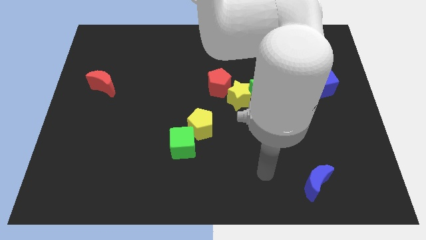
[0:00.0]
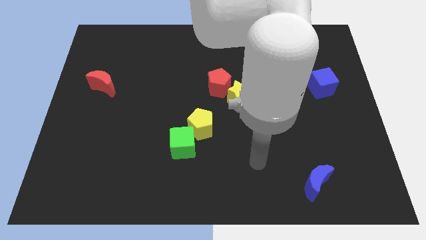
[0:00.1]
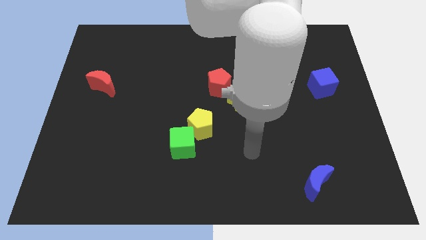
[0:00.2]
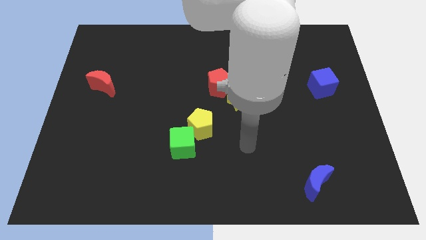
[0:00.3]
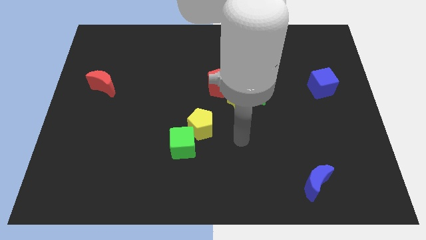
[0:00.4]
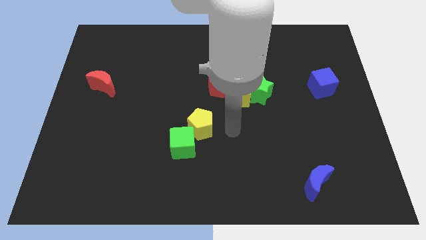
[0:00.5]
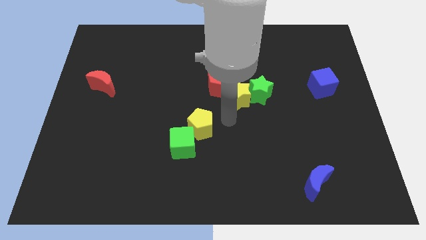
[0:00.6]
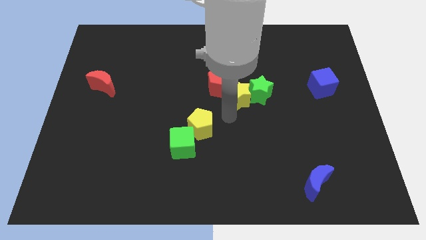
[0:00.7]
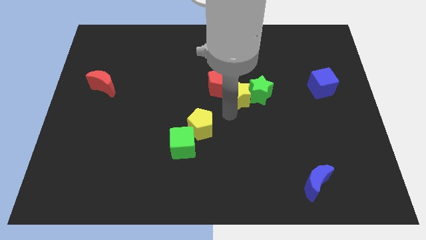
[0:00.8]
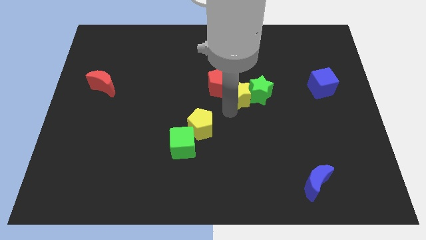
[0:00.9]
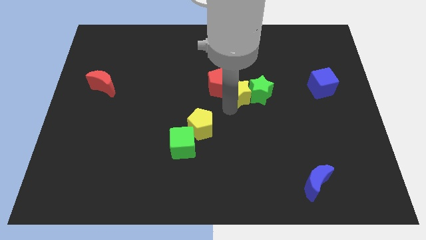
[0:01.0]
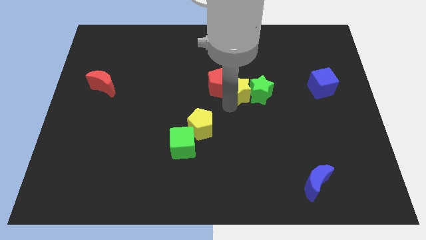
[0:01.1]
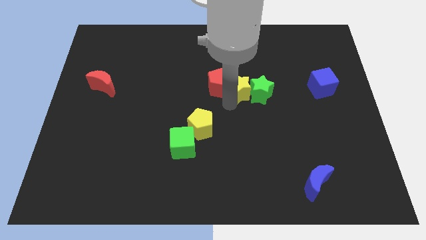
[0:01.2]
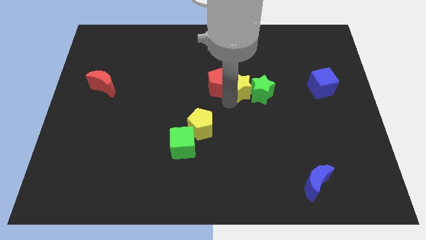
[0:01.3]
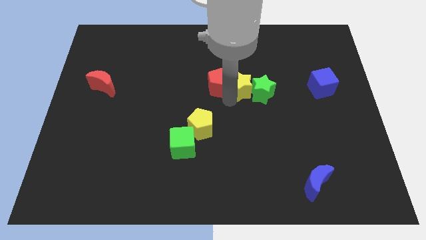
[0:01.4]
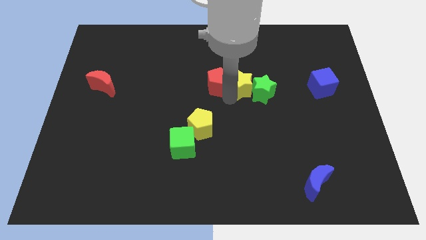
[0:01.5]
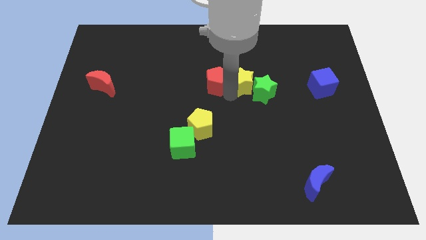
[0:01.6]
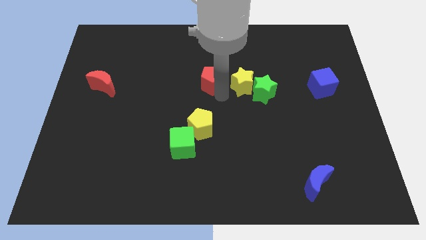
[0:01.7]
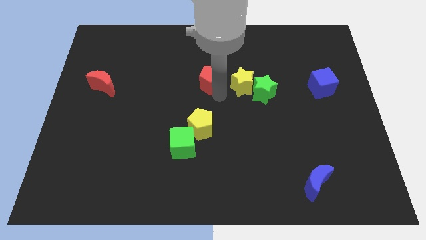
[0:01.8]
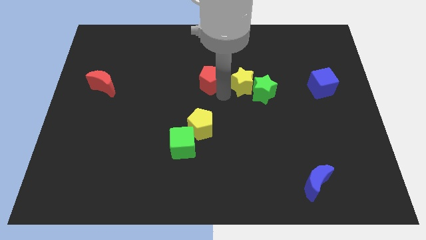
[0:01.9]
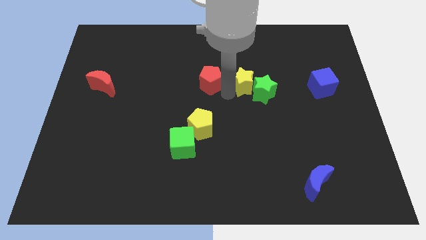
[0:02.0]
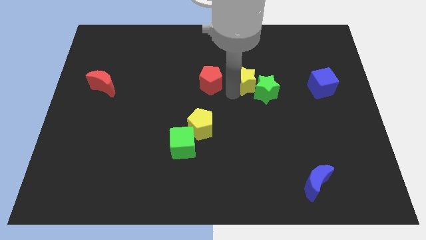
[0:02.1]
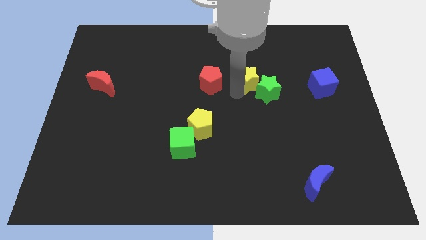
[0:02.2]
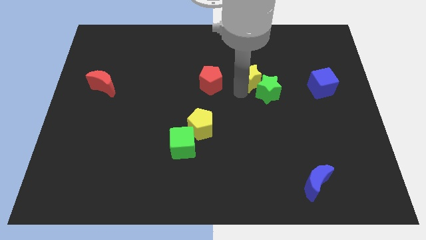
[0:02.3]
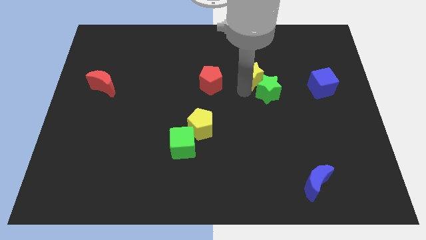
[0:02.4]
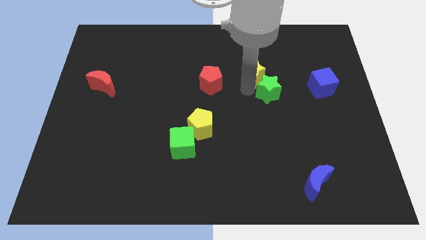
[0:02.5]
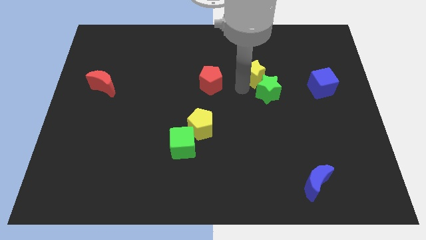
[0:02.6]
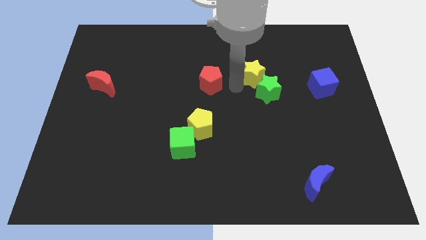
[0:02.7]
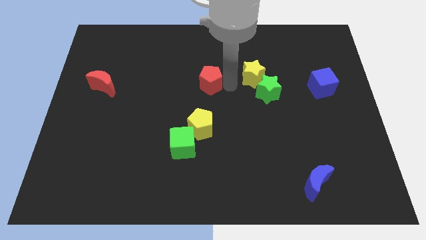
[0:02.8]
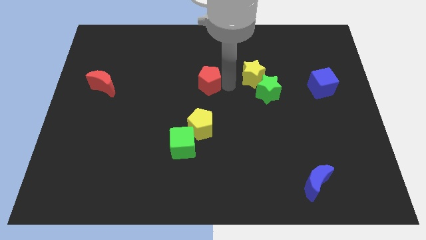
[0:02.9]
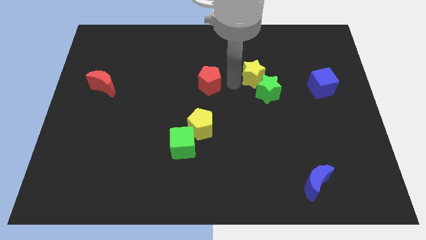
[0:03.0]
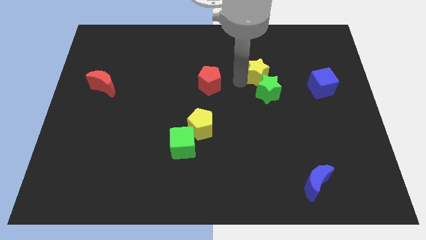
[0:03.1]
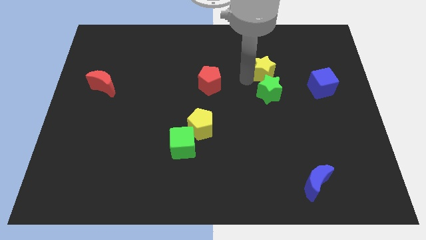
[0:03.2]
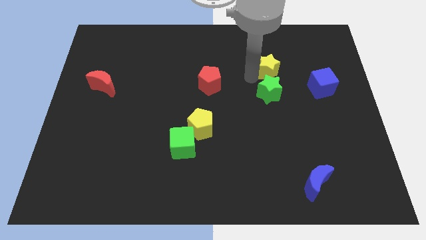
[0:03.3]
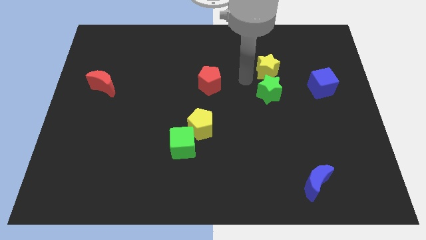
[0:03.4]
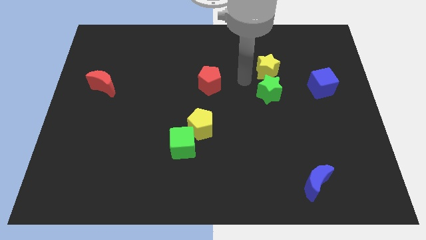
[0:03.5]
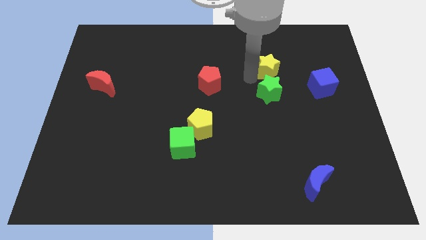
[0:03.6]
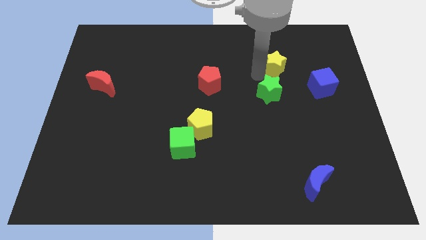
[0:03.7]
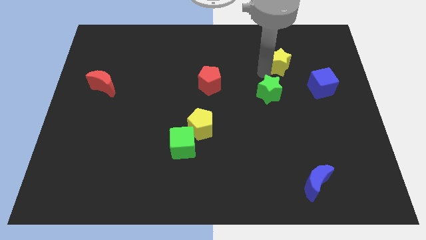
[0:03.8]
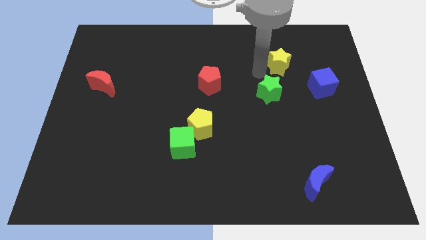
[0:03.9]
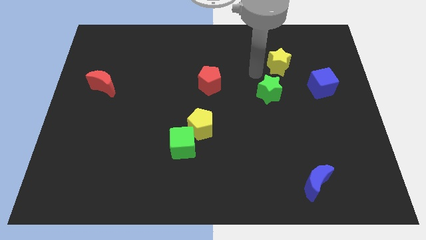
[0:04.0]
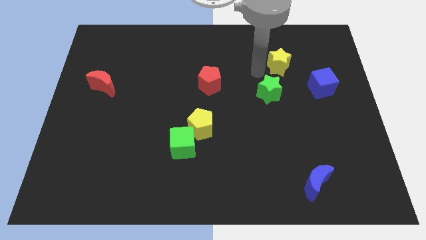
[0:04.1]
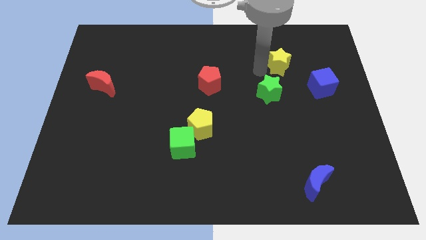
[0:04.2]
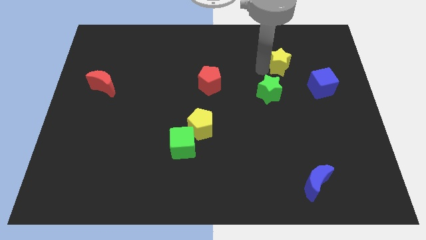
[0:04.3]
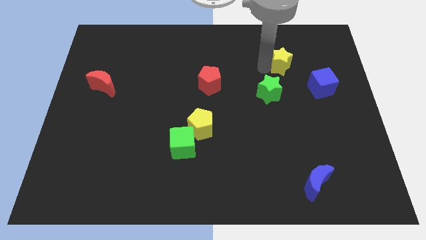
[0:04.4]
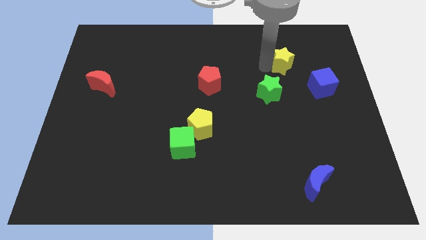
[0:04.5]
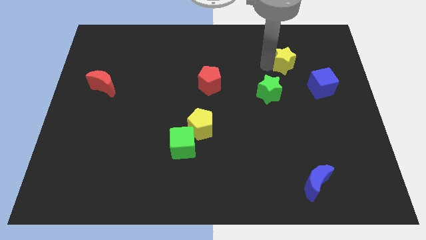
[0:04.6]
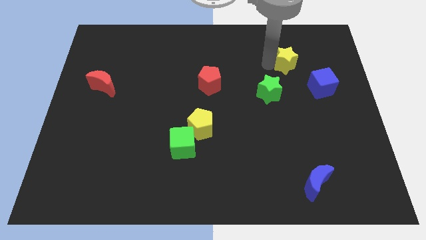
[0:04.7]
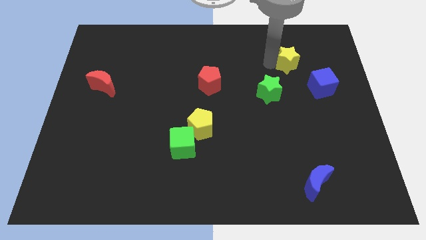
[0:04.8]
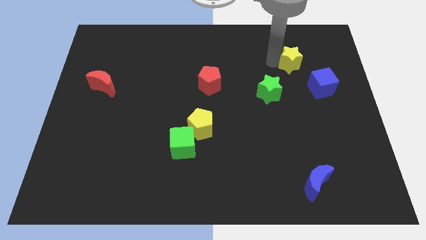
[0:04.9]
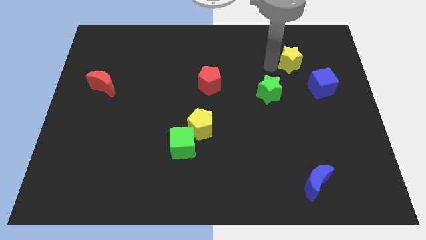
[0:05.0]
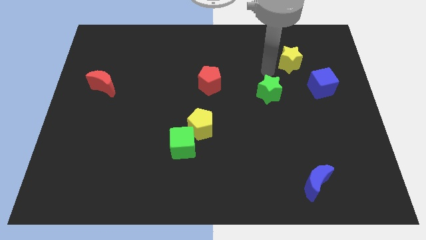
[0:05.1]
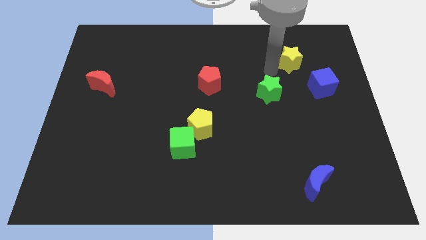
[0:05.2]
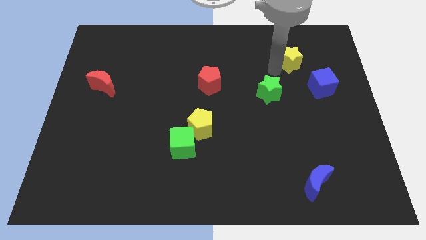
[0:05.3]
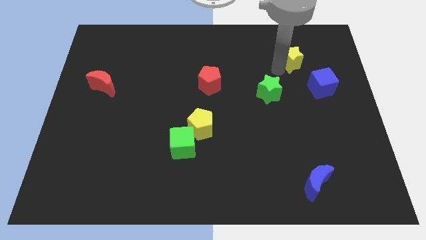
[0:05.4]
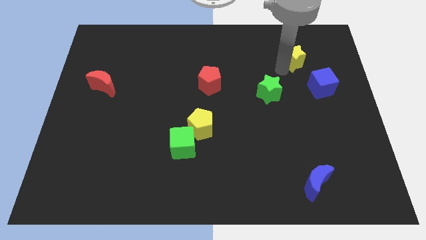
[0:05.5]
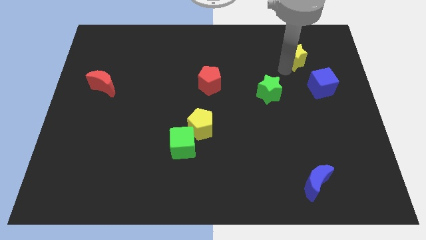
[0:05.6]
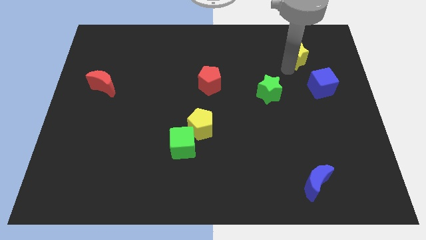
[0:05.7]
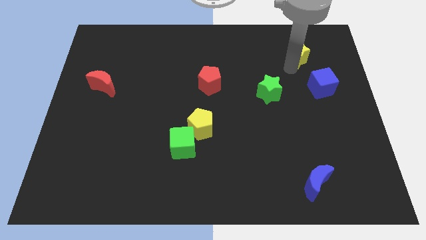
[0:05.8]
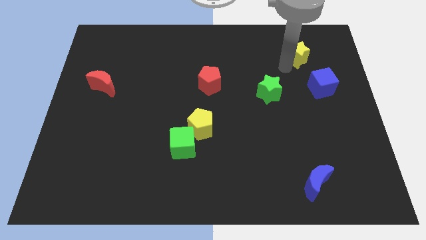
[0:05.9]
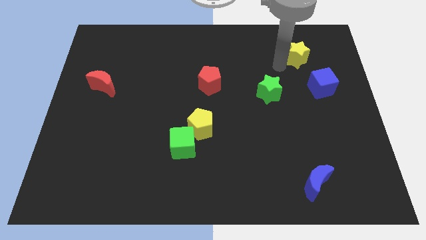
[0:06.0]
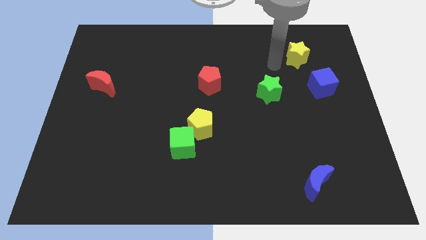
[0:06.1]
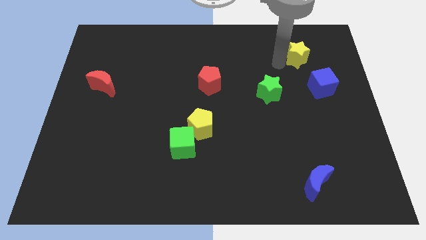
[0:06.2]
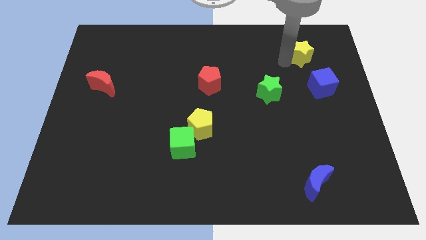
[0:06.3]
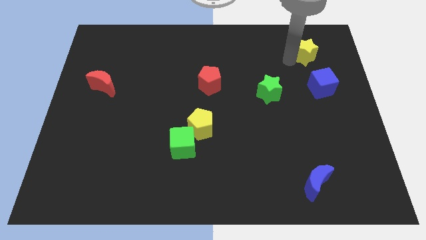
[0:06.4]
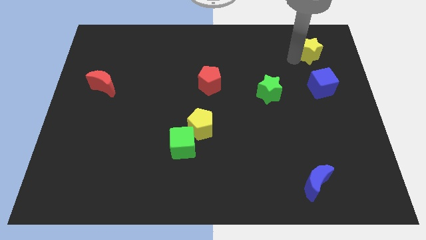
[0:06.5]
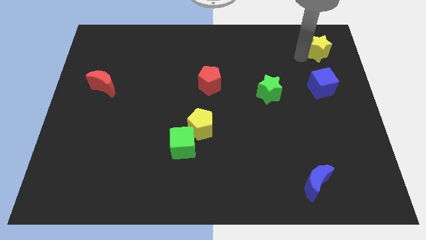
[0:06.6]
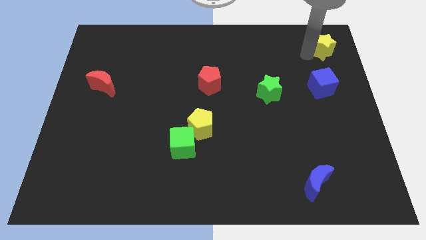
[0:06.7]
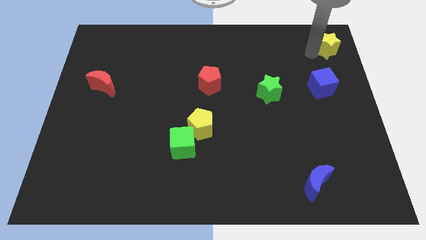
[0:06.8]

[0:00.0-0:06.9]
put the yellow star to the top right of the board
